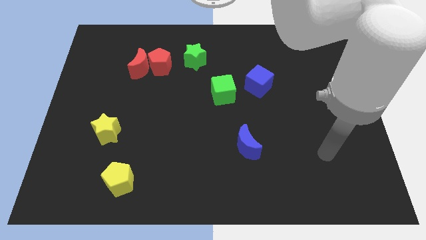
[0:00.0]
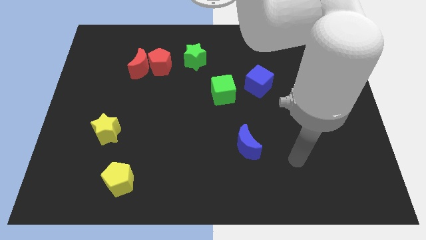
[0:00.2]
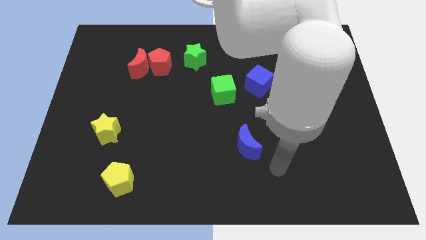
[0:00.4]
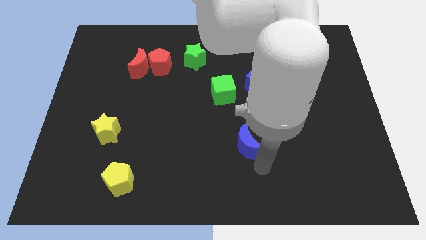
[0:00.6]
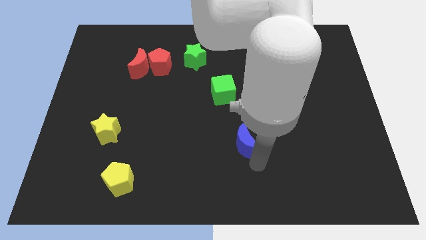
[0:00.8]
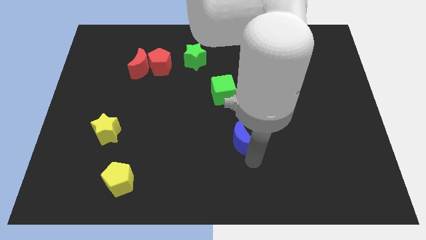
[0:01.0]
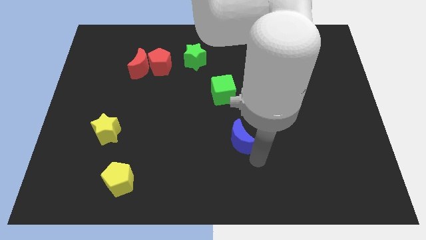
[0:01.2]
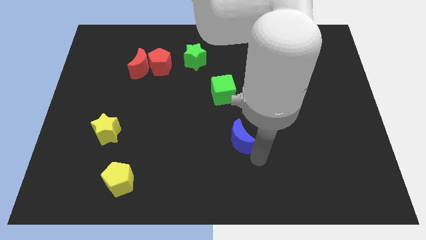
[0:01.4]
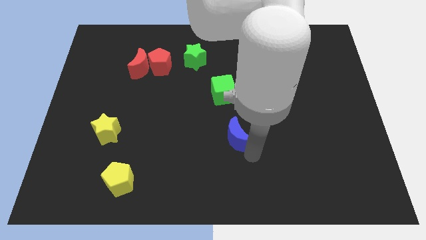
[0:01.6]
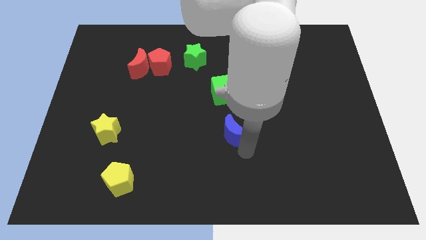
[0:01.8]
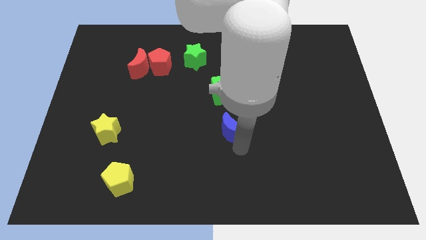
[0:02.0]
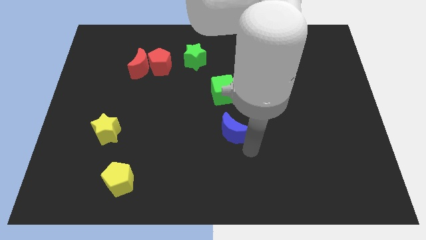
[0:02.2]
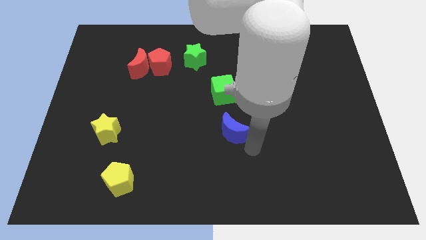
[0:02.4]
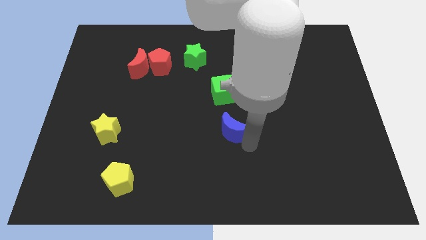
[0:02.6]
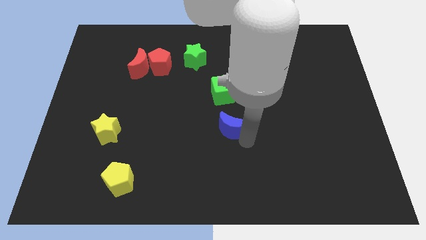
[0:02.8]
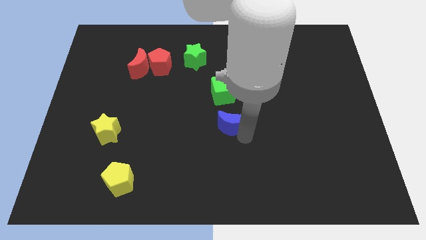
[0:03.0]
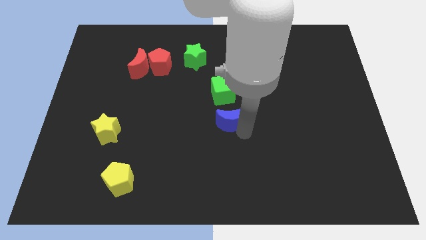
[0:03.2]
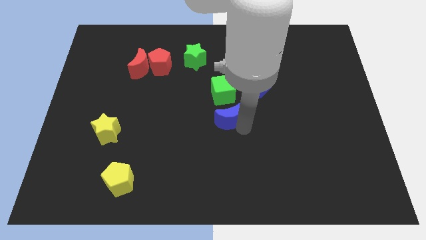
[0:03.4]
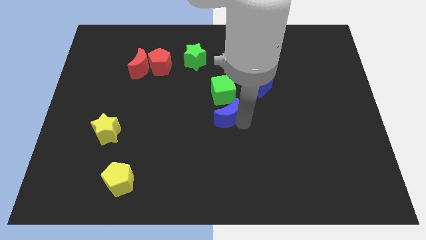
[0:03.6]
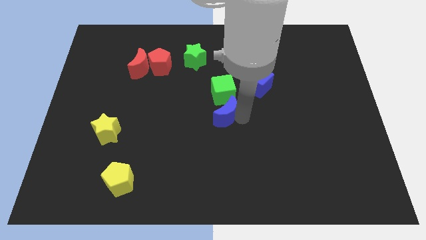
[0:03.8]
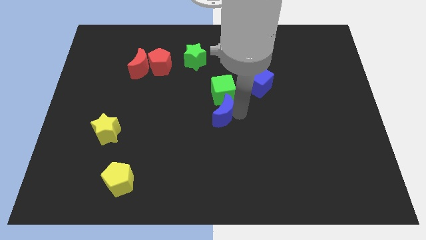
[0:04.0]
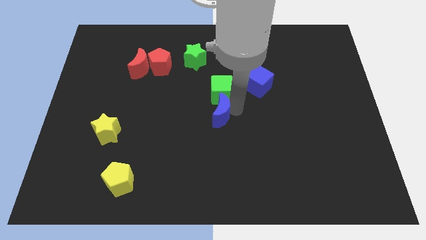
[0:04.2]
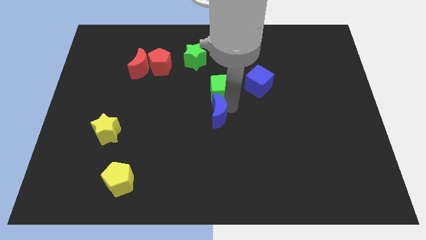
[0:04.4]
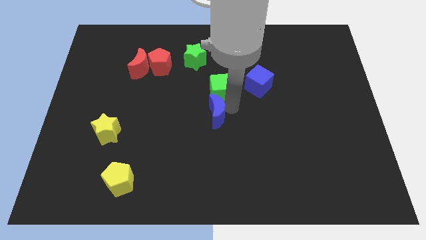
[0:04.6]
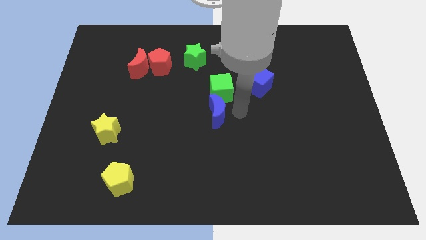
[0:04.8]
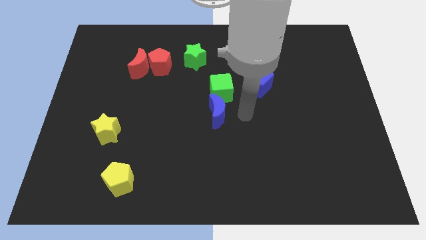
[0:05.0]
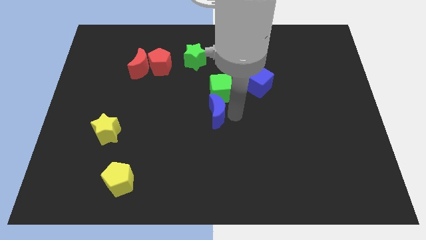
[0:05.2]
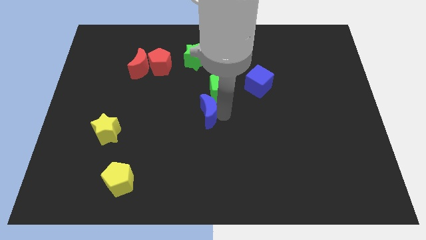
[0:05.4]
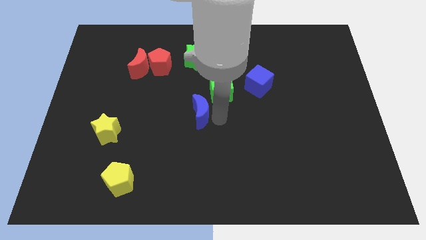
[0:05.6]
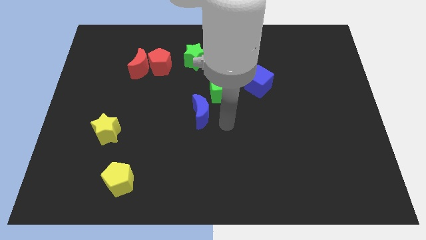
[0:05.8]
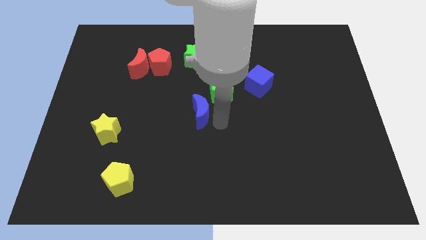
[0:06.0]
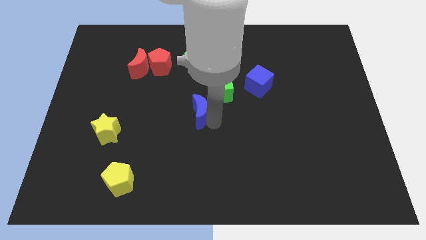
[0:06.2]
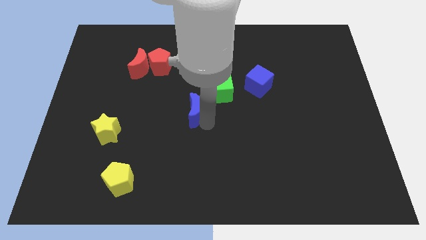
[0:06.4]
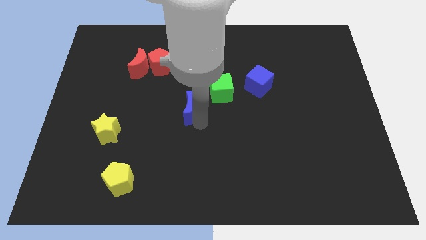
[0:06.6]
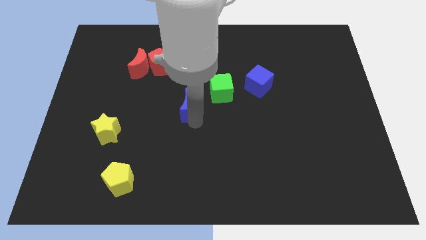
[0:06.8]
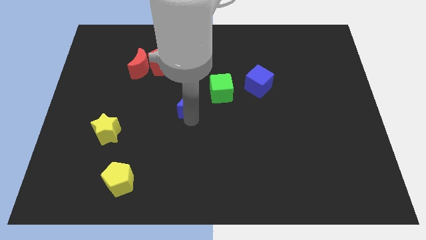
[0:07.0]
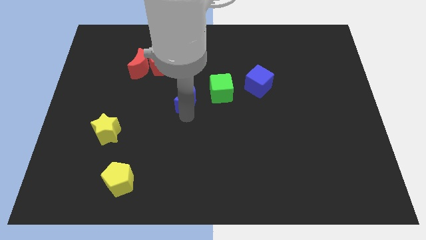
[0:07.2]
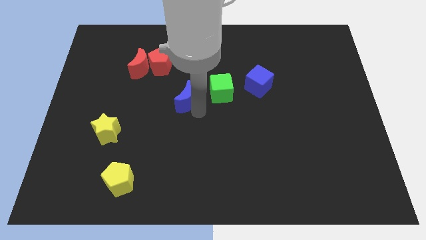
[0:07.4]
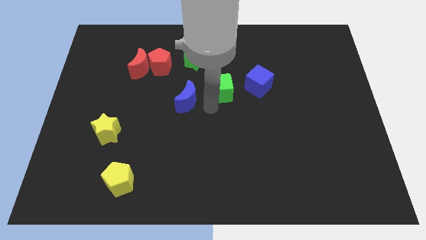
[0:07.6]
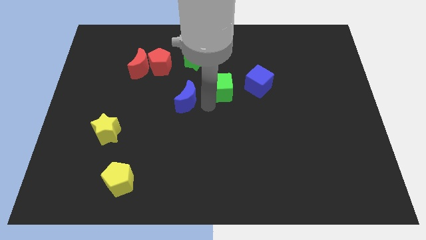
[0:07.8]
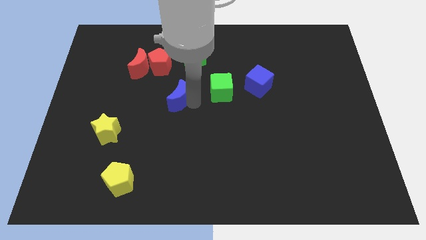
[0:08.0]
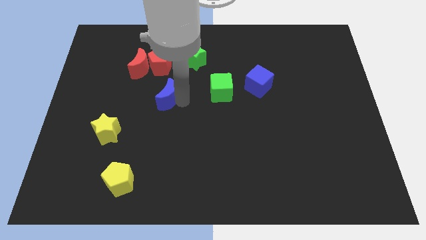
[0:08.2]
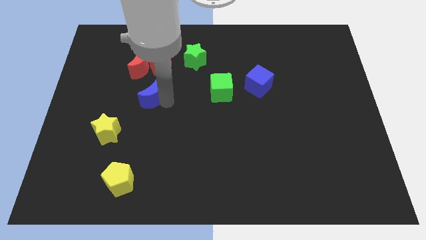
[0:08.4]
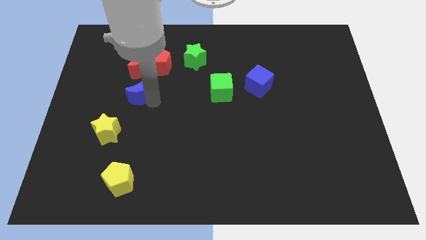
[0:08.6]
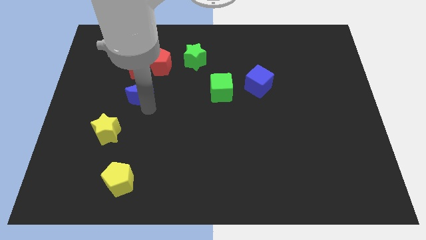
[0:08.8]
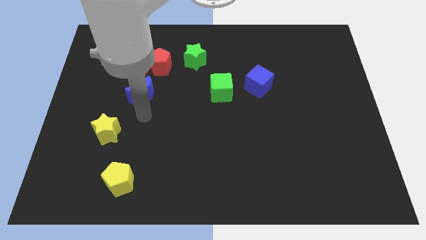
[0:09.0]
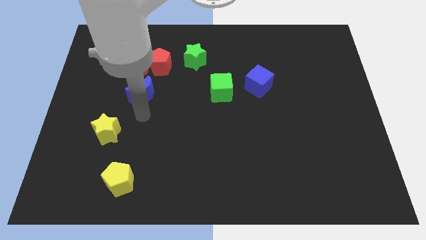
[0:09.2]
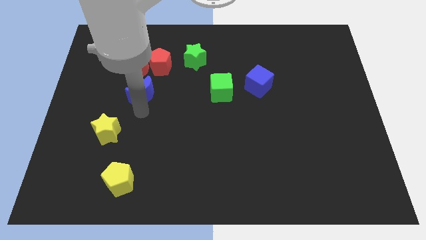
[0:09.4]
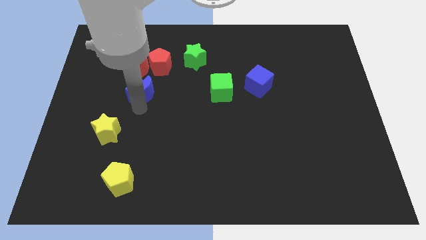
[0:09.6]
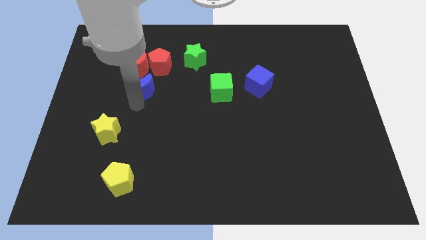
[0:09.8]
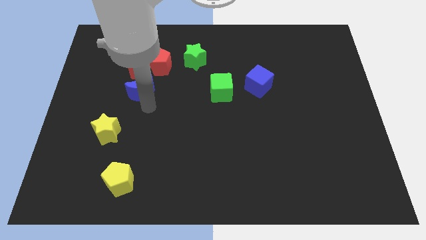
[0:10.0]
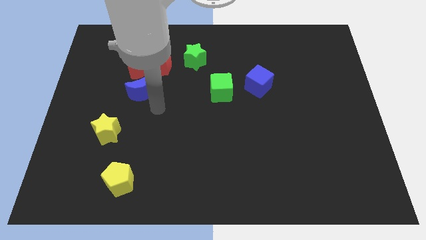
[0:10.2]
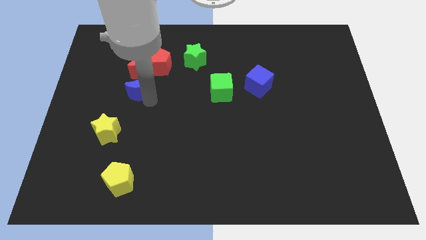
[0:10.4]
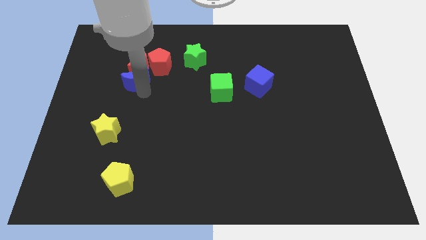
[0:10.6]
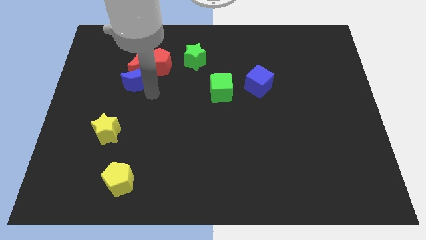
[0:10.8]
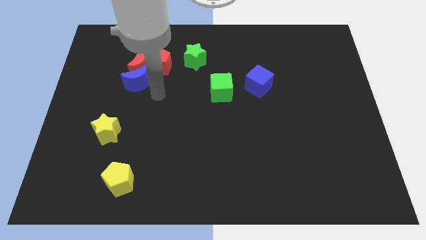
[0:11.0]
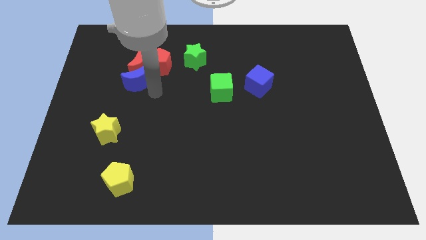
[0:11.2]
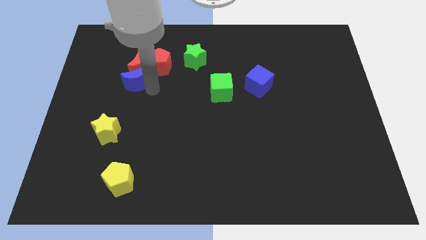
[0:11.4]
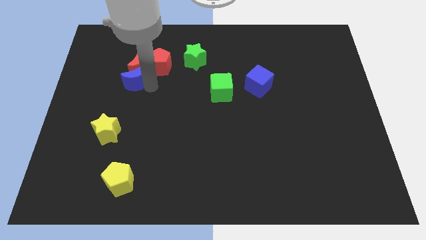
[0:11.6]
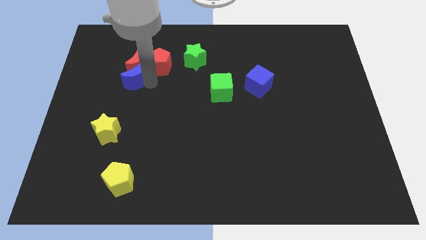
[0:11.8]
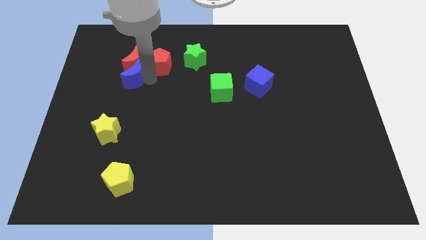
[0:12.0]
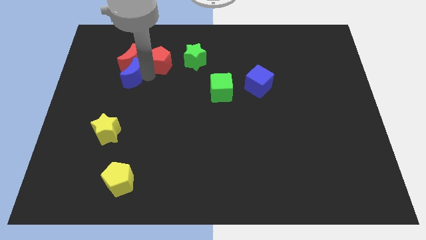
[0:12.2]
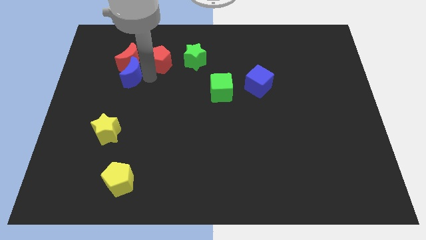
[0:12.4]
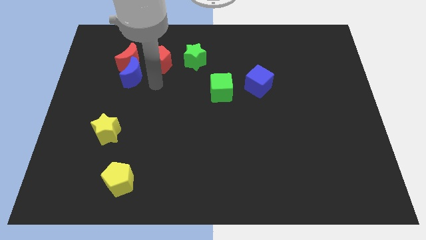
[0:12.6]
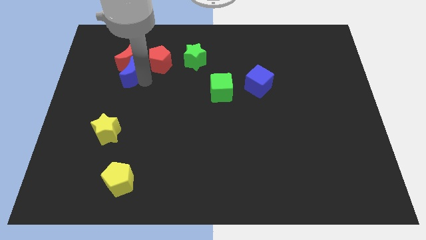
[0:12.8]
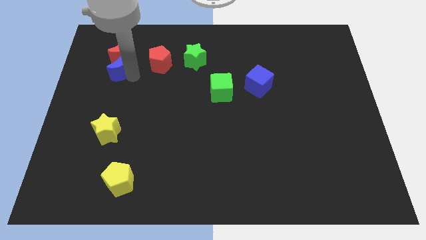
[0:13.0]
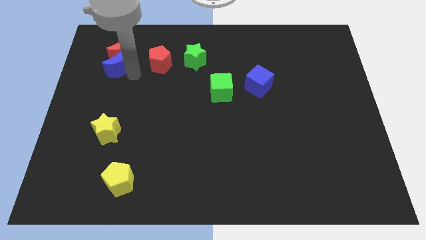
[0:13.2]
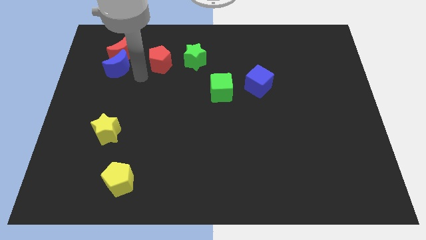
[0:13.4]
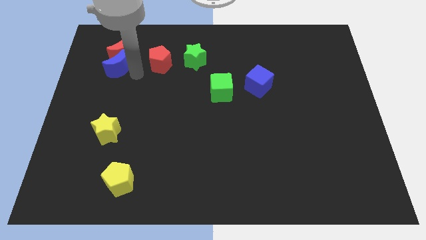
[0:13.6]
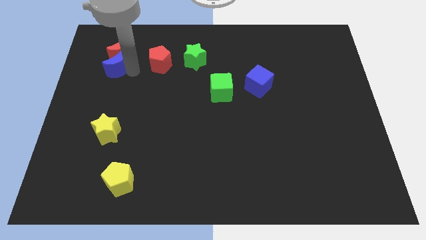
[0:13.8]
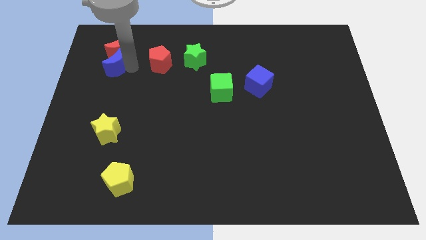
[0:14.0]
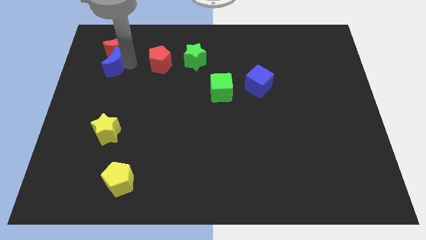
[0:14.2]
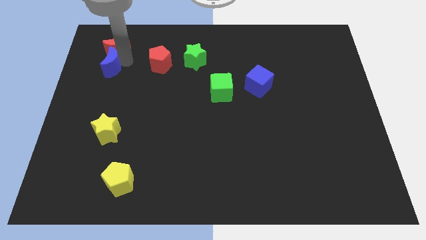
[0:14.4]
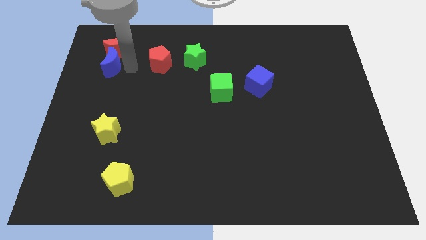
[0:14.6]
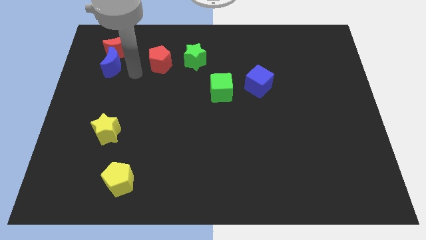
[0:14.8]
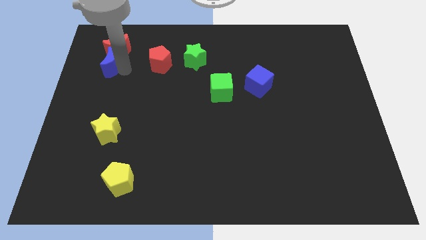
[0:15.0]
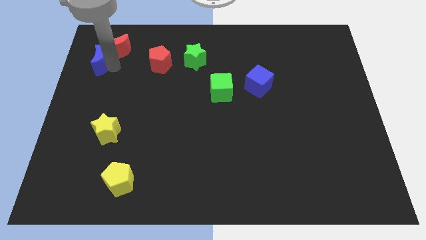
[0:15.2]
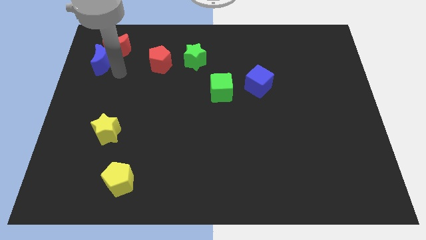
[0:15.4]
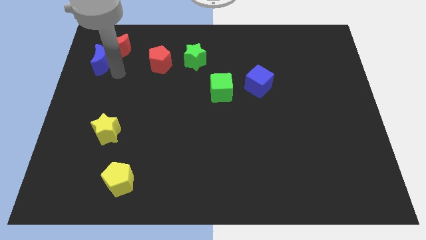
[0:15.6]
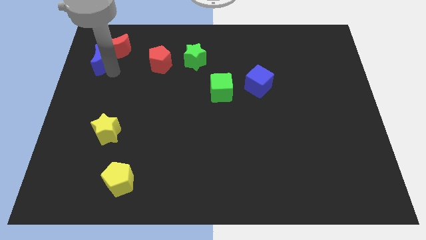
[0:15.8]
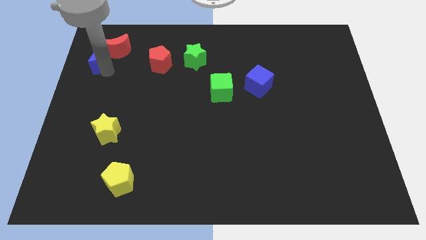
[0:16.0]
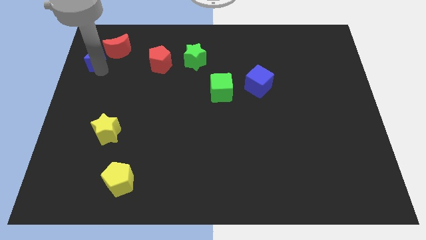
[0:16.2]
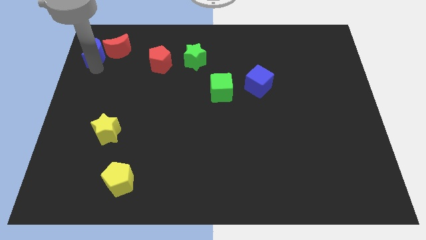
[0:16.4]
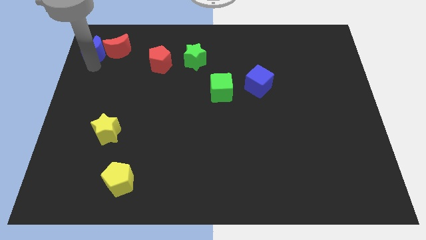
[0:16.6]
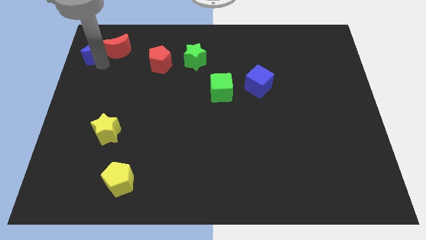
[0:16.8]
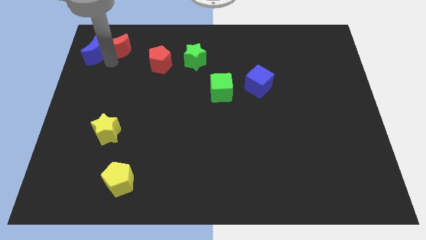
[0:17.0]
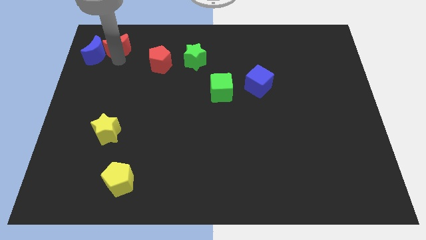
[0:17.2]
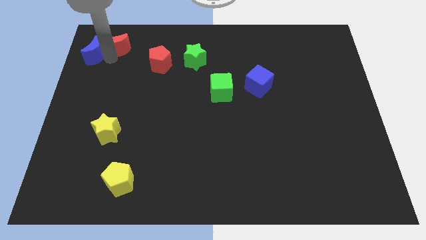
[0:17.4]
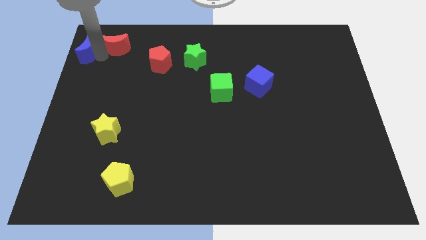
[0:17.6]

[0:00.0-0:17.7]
move the blue moon to the top left
